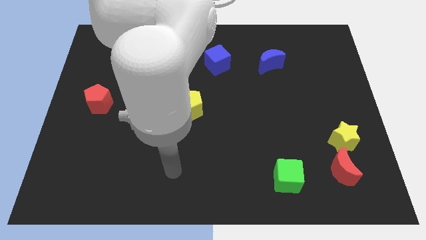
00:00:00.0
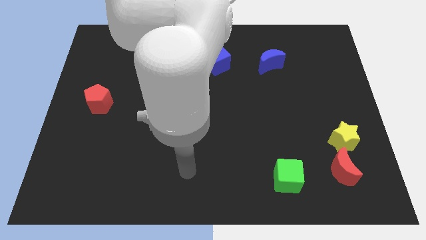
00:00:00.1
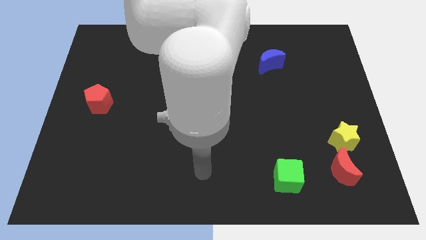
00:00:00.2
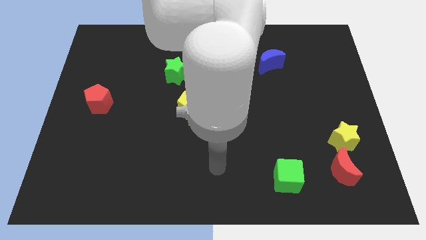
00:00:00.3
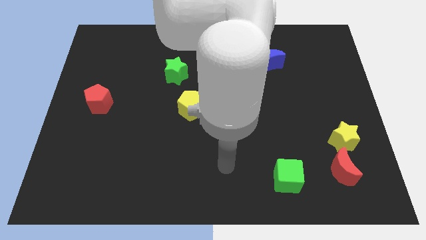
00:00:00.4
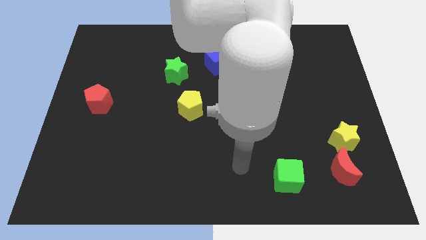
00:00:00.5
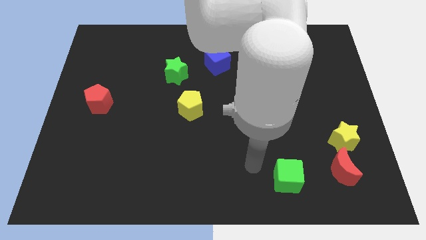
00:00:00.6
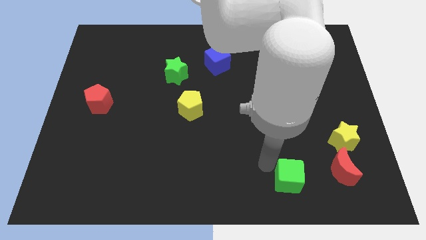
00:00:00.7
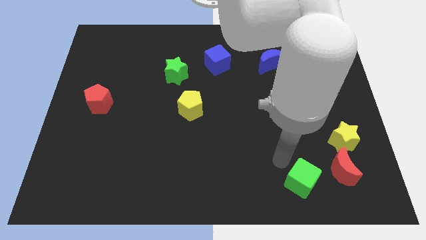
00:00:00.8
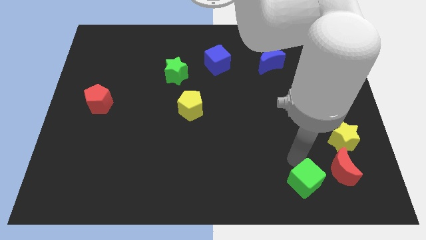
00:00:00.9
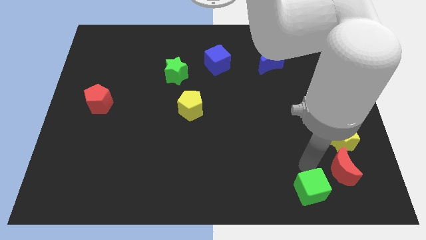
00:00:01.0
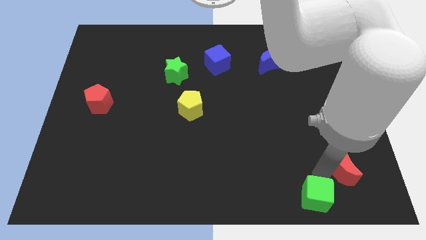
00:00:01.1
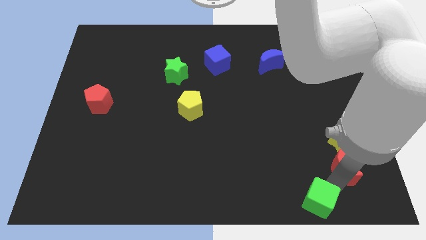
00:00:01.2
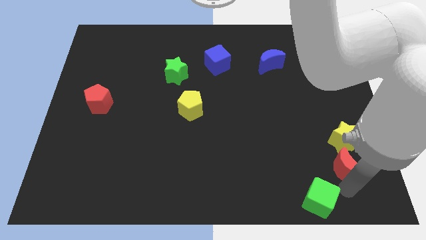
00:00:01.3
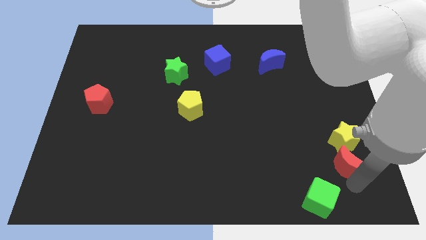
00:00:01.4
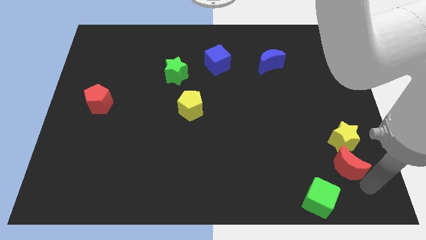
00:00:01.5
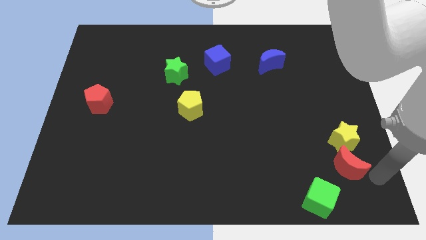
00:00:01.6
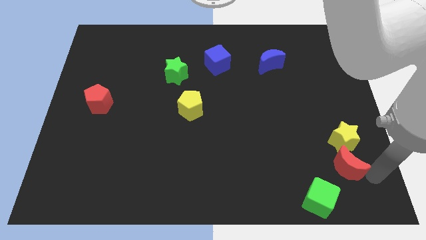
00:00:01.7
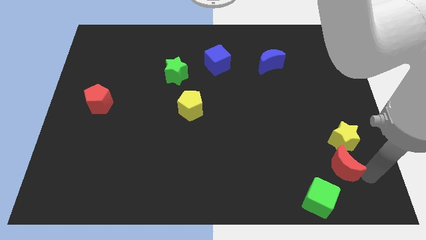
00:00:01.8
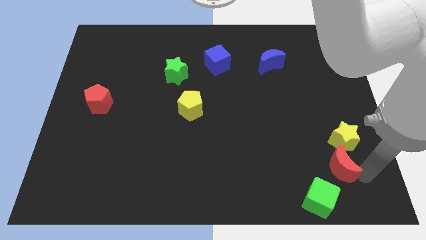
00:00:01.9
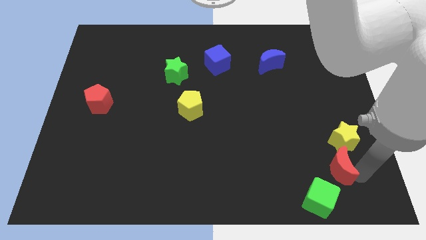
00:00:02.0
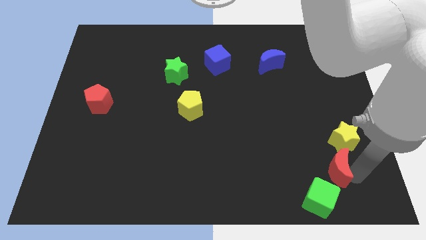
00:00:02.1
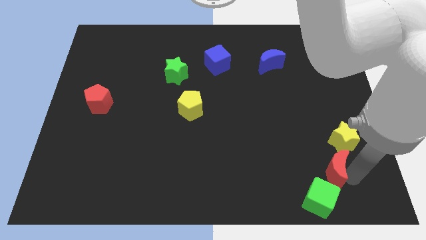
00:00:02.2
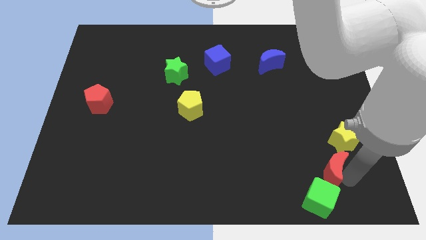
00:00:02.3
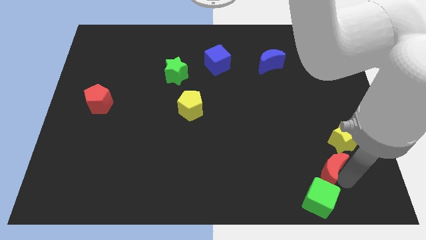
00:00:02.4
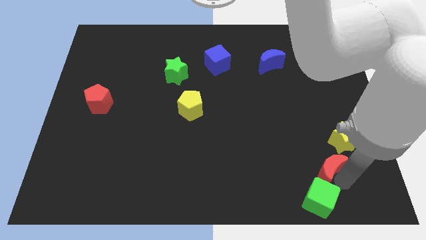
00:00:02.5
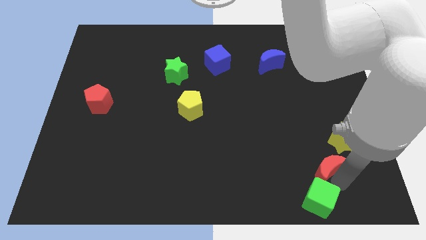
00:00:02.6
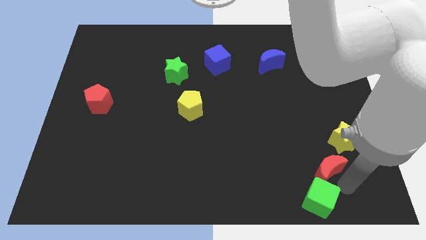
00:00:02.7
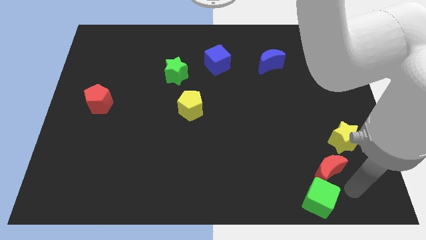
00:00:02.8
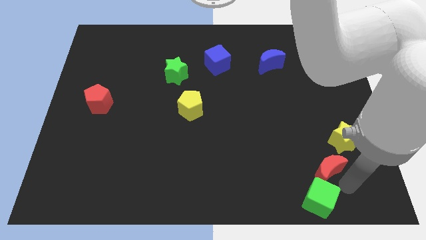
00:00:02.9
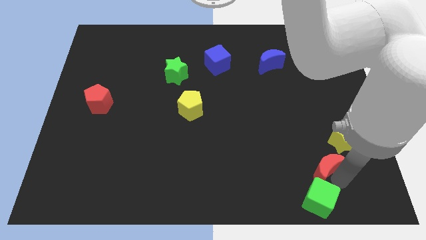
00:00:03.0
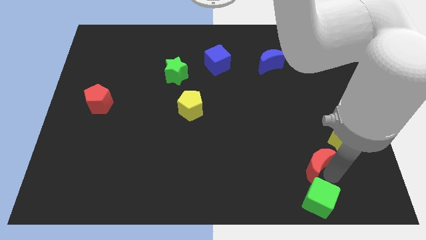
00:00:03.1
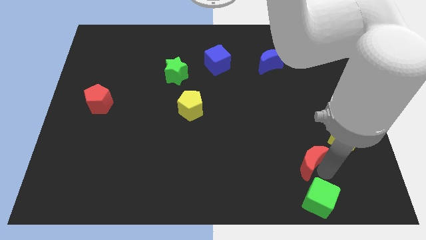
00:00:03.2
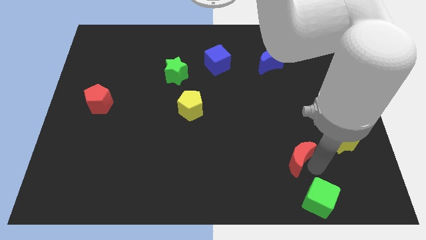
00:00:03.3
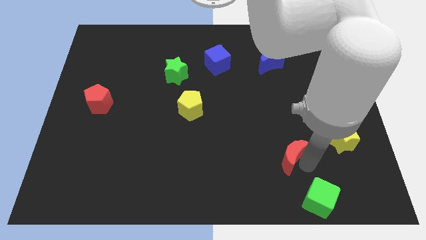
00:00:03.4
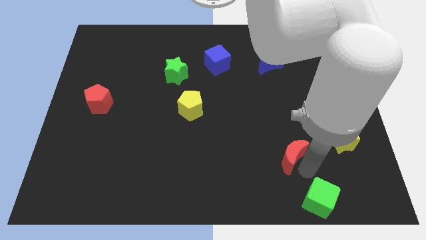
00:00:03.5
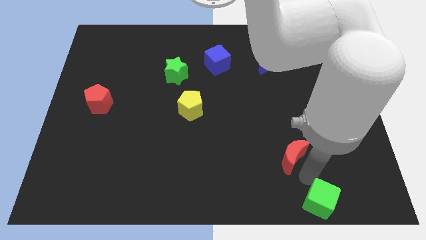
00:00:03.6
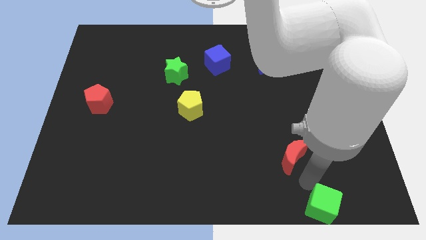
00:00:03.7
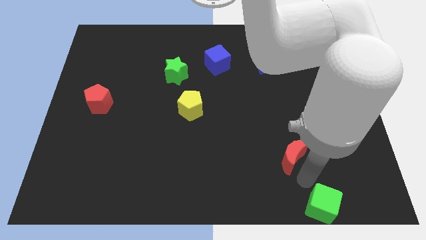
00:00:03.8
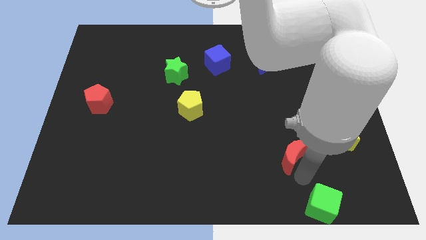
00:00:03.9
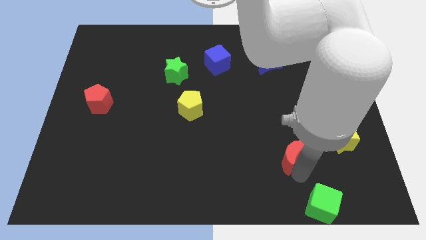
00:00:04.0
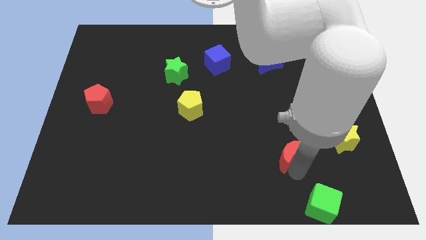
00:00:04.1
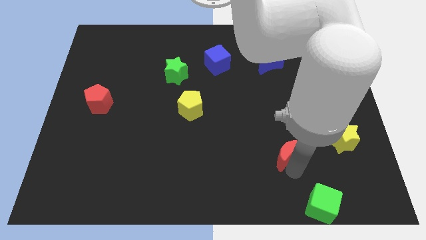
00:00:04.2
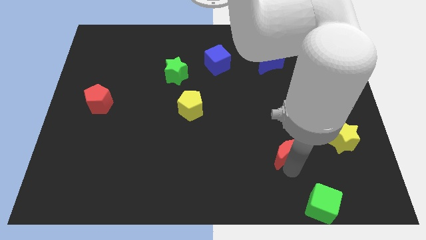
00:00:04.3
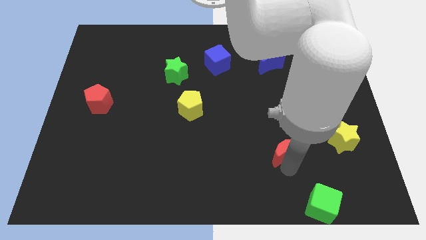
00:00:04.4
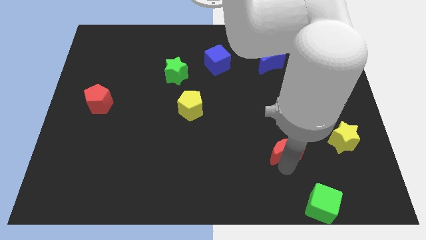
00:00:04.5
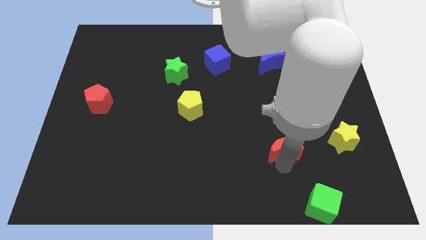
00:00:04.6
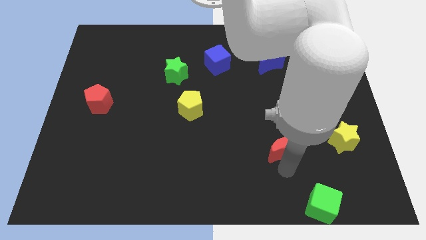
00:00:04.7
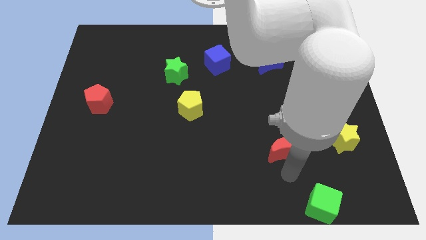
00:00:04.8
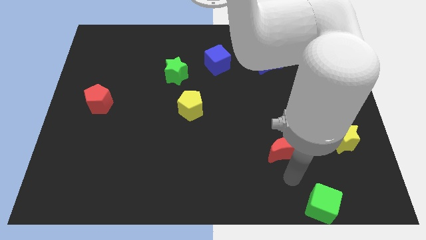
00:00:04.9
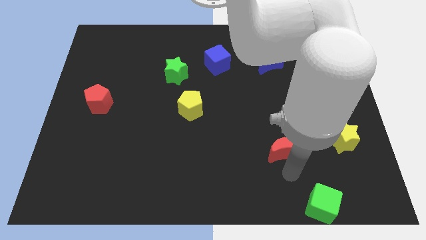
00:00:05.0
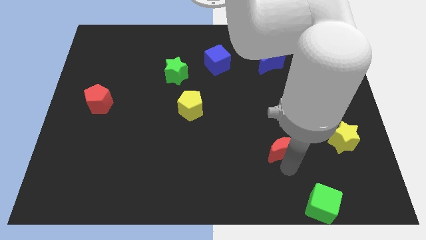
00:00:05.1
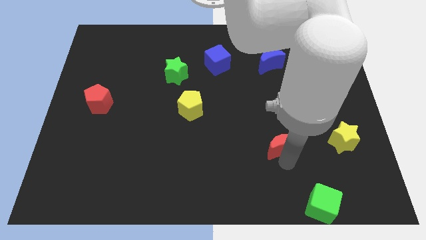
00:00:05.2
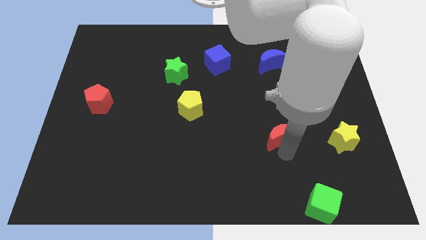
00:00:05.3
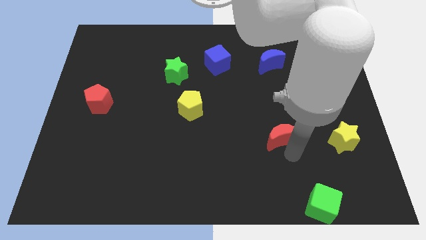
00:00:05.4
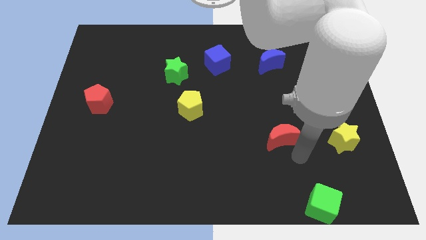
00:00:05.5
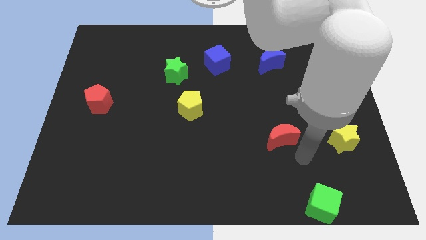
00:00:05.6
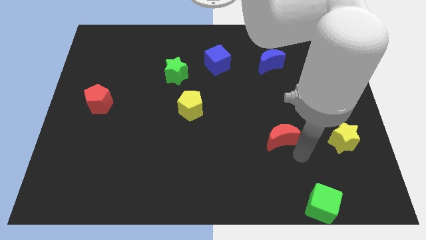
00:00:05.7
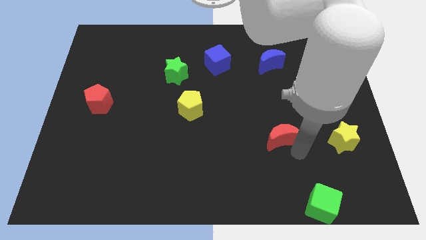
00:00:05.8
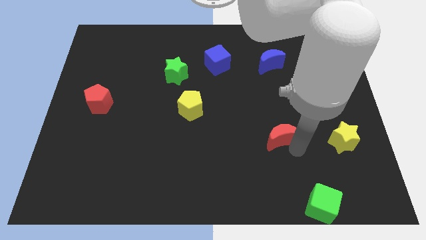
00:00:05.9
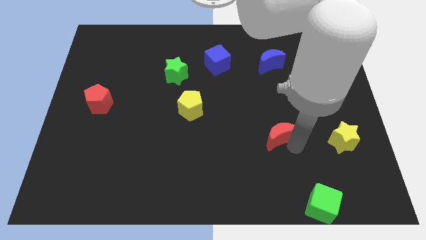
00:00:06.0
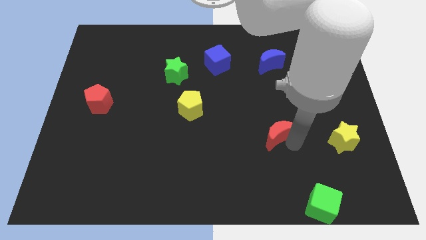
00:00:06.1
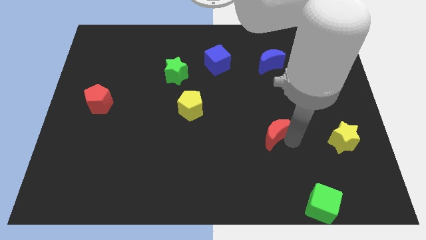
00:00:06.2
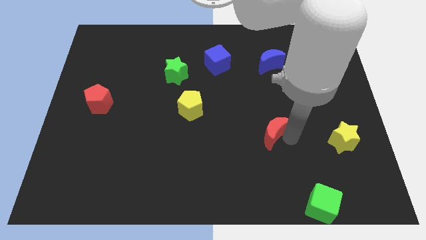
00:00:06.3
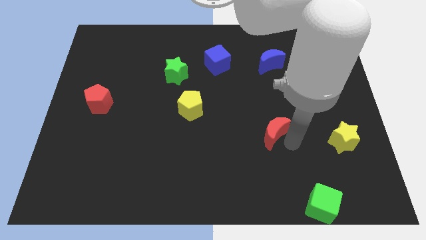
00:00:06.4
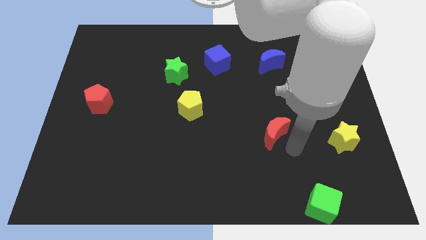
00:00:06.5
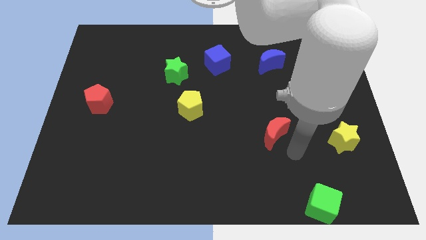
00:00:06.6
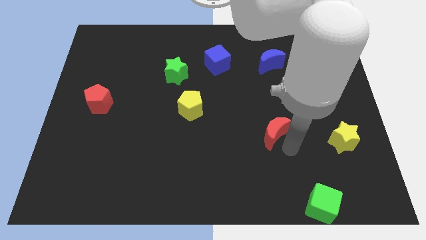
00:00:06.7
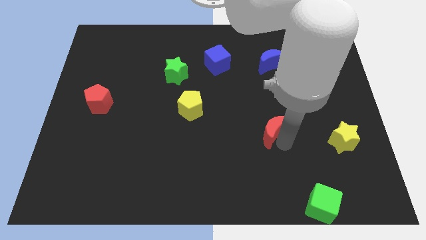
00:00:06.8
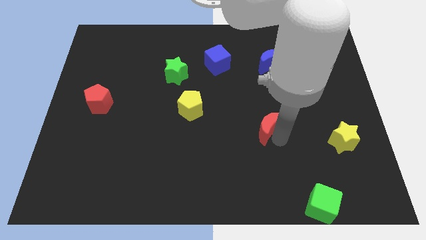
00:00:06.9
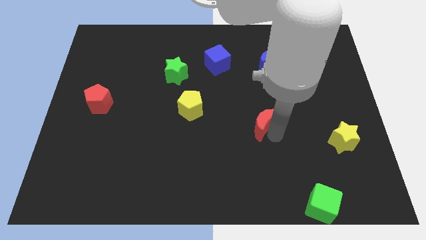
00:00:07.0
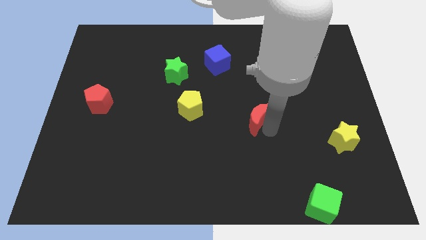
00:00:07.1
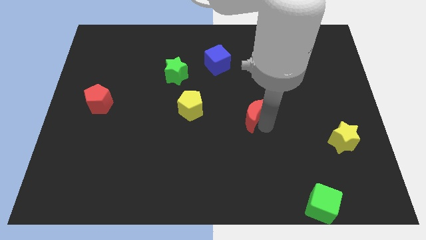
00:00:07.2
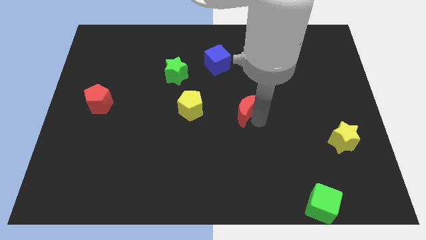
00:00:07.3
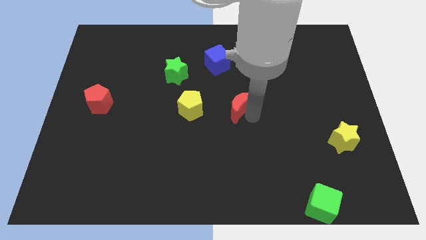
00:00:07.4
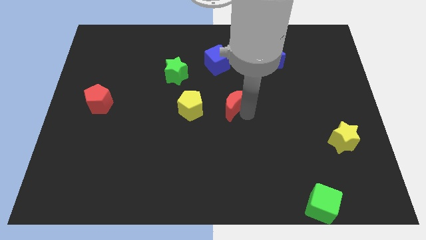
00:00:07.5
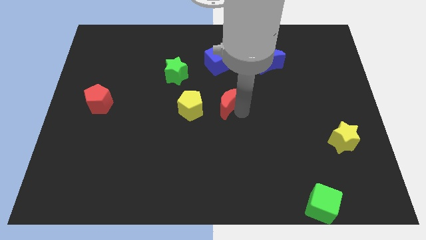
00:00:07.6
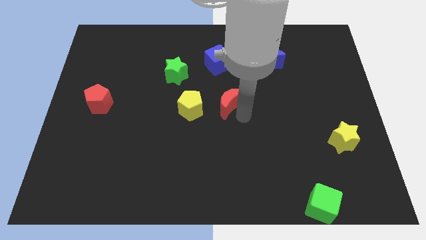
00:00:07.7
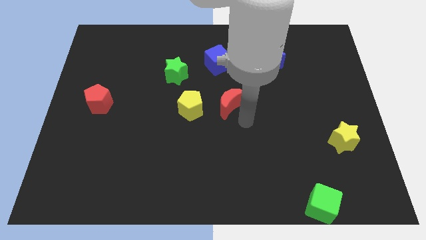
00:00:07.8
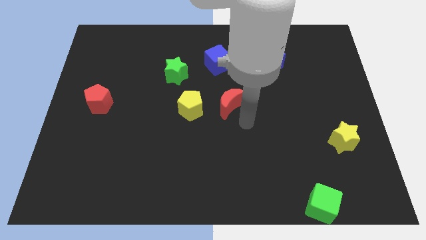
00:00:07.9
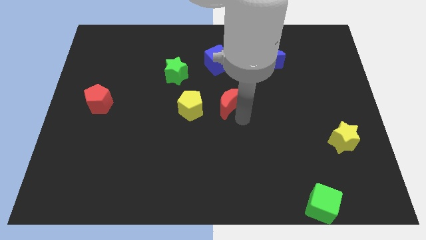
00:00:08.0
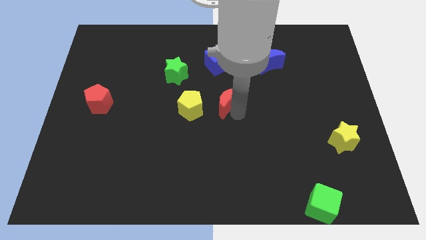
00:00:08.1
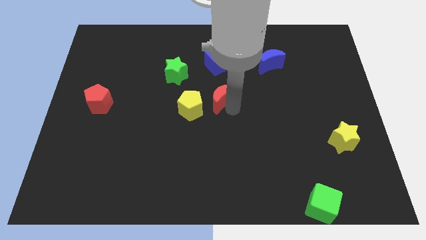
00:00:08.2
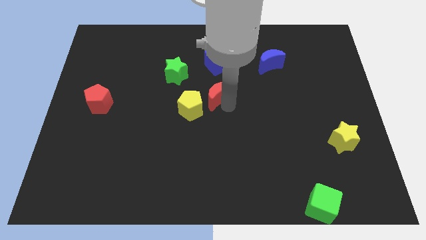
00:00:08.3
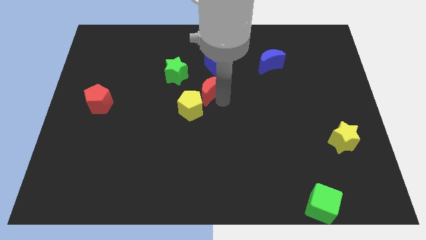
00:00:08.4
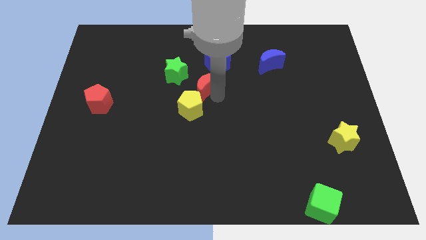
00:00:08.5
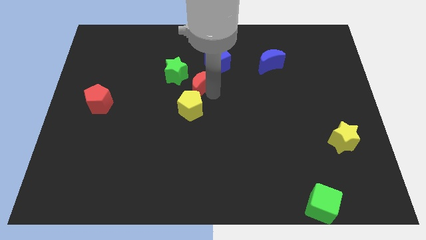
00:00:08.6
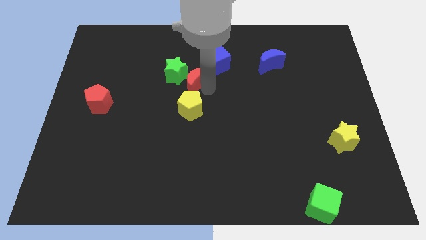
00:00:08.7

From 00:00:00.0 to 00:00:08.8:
slide the red moon to the green star
